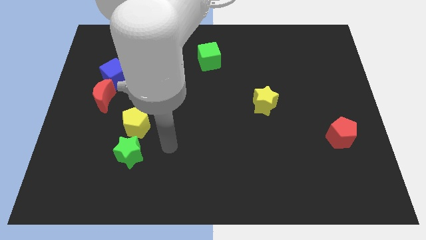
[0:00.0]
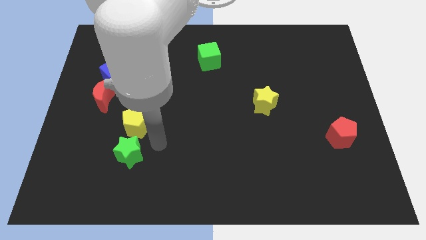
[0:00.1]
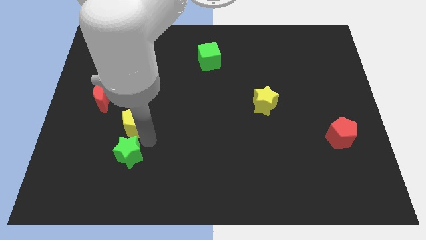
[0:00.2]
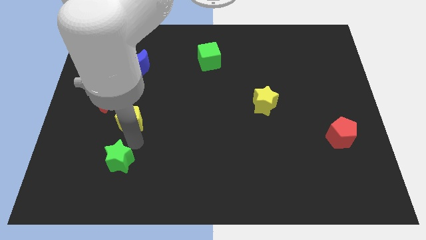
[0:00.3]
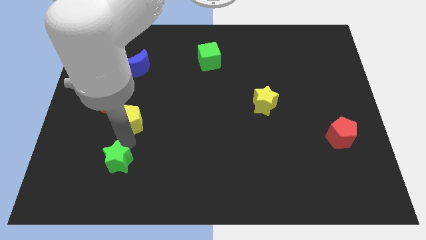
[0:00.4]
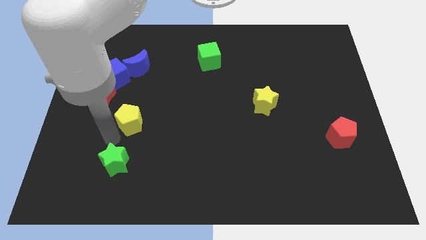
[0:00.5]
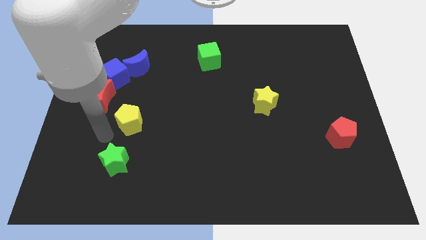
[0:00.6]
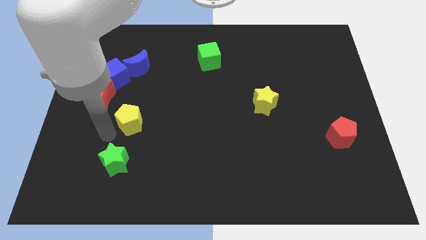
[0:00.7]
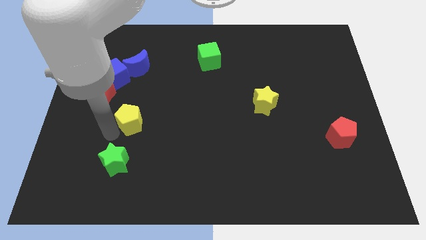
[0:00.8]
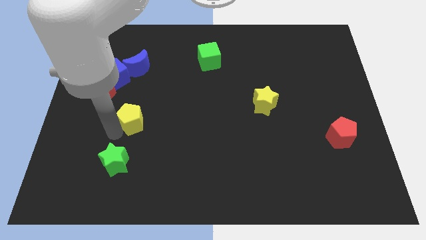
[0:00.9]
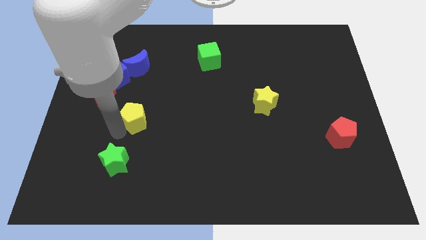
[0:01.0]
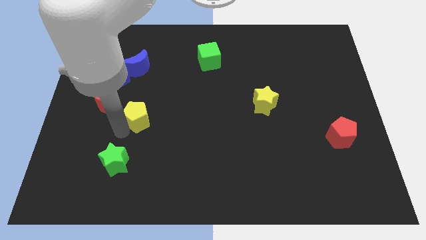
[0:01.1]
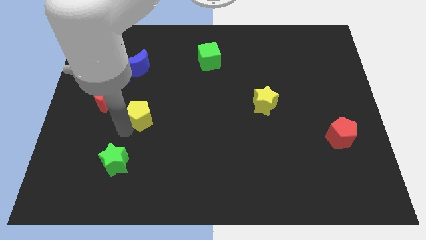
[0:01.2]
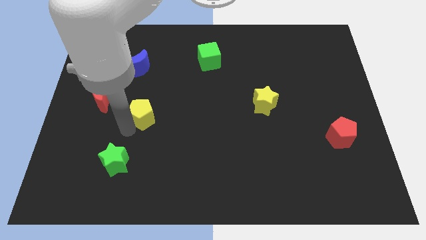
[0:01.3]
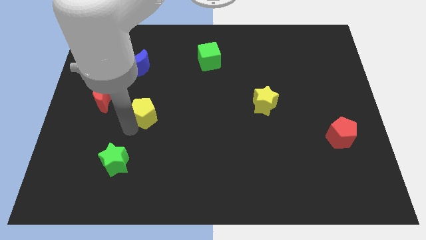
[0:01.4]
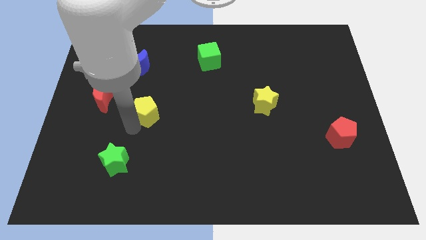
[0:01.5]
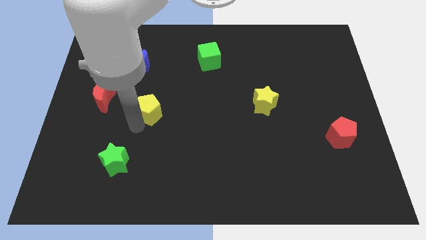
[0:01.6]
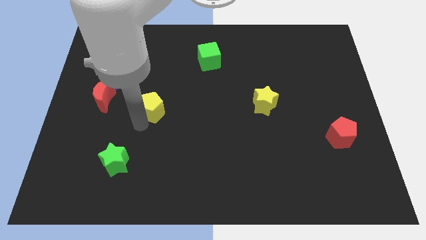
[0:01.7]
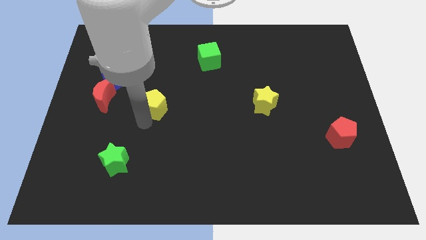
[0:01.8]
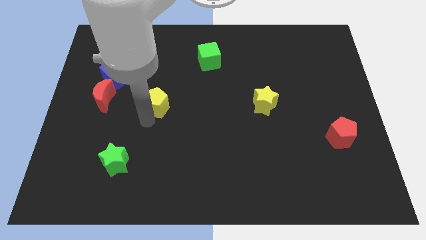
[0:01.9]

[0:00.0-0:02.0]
push the yellow pentagon up and to the right diagonally a little

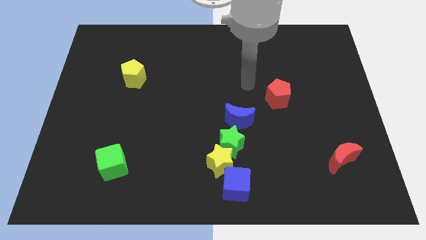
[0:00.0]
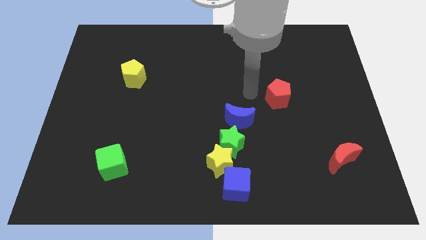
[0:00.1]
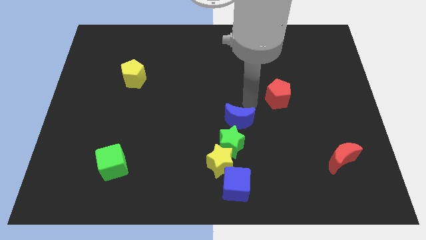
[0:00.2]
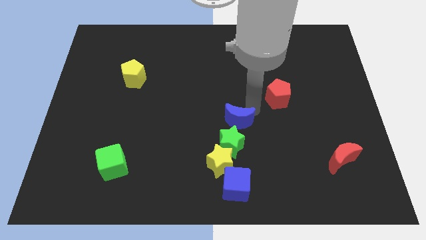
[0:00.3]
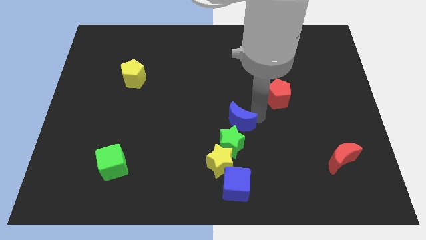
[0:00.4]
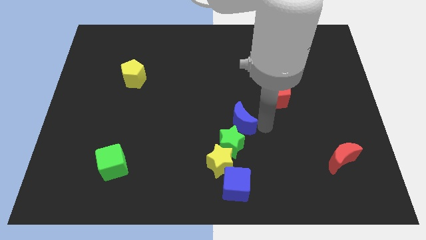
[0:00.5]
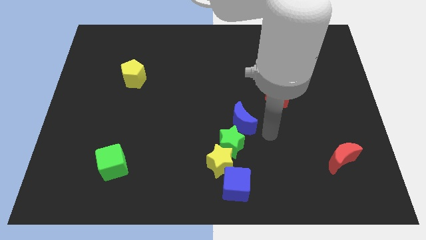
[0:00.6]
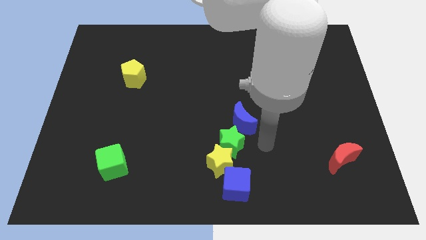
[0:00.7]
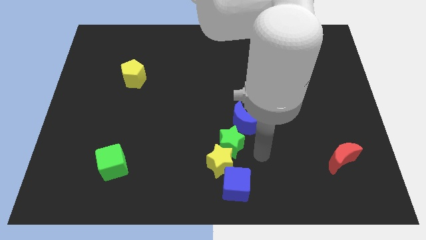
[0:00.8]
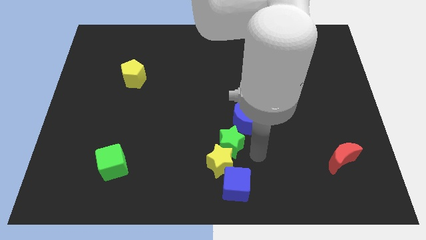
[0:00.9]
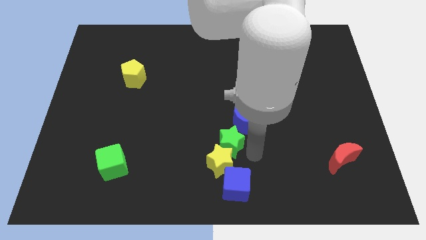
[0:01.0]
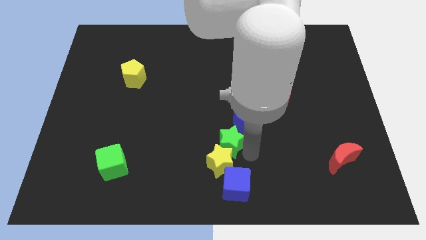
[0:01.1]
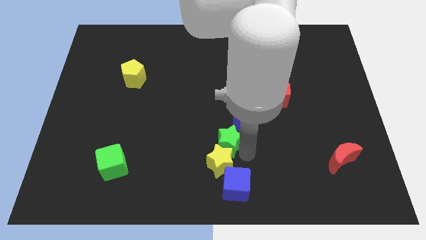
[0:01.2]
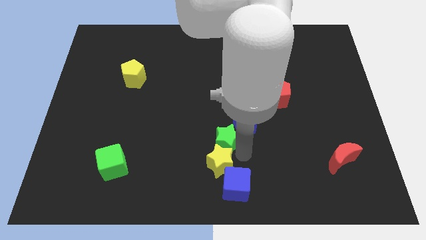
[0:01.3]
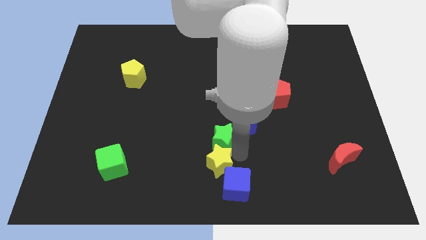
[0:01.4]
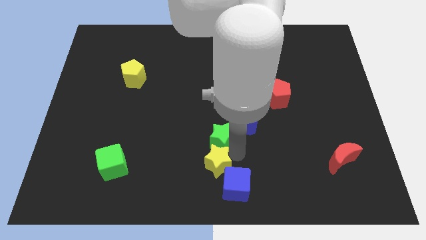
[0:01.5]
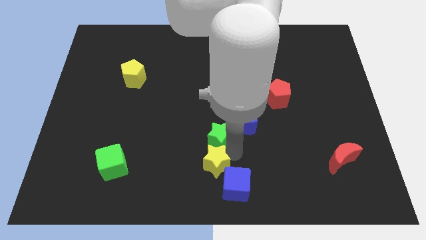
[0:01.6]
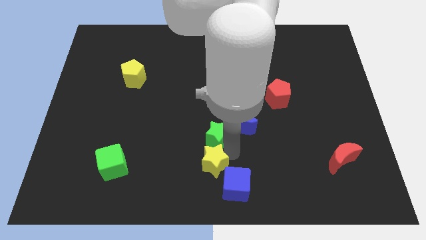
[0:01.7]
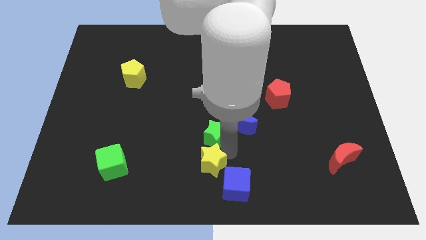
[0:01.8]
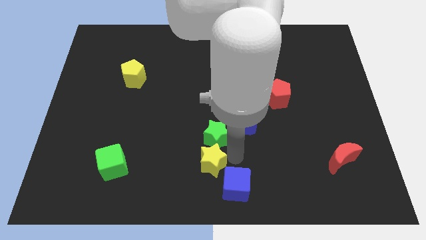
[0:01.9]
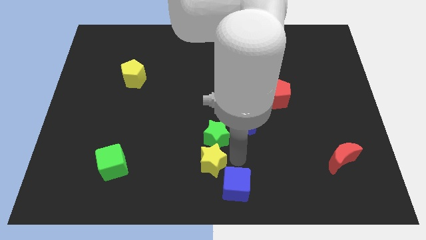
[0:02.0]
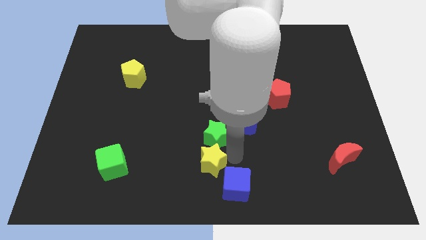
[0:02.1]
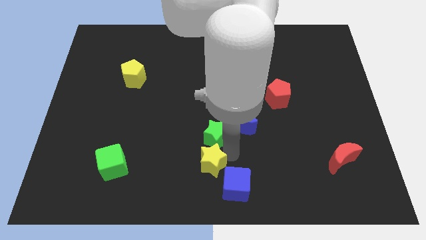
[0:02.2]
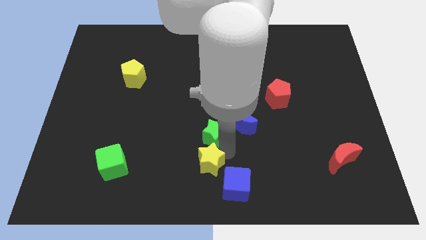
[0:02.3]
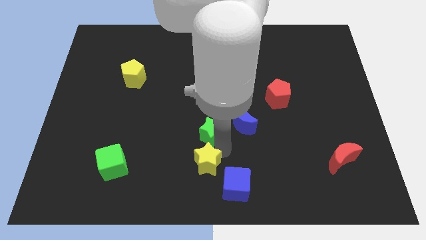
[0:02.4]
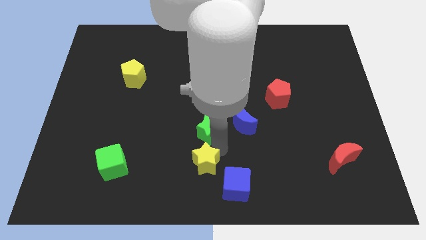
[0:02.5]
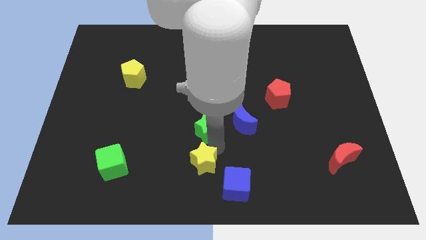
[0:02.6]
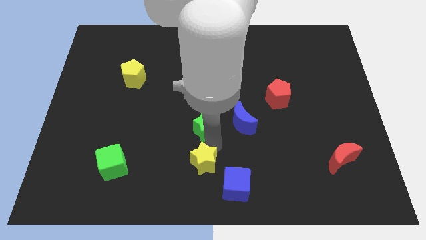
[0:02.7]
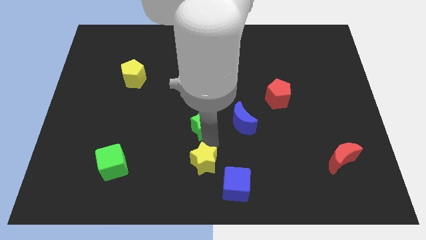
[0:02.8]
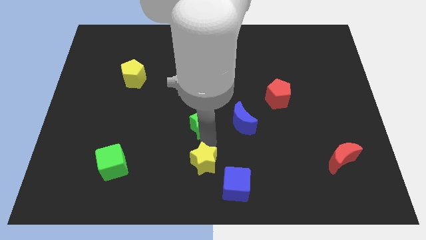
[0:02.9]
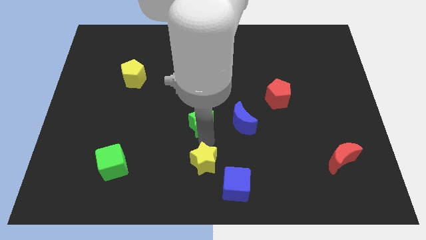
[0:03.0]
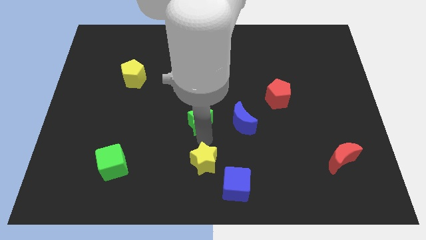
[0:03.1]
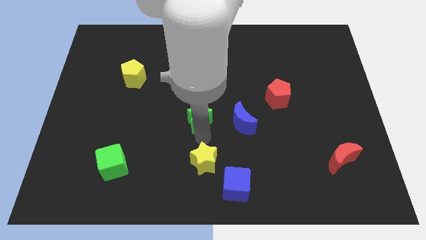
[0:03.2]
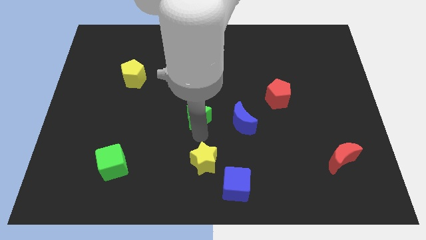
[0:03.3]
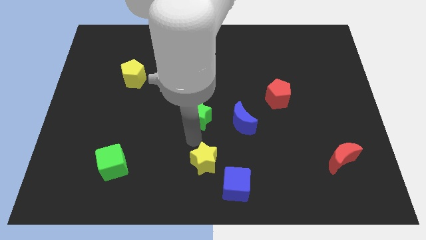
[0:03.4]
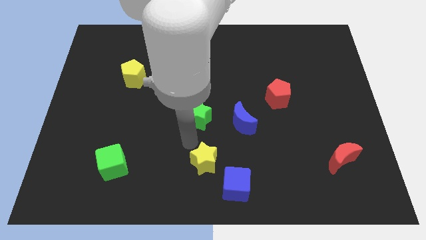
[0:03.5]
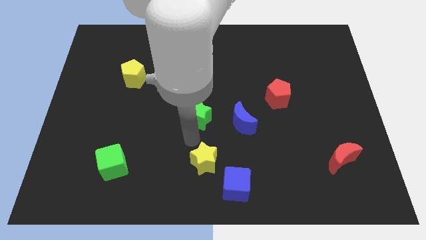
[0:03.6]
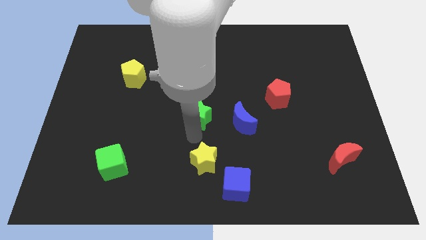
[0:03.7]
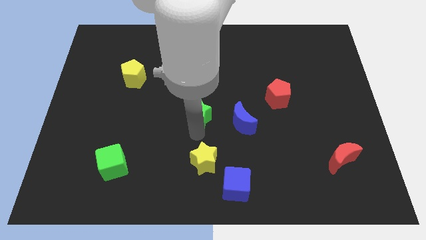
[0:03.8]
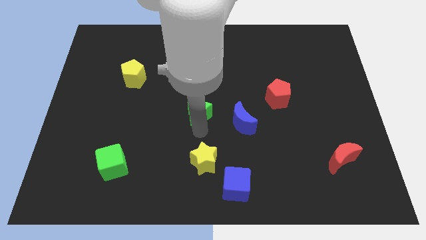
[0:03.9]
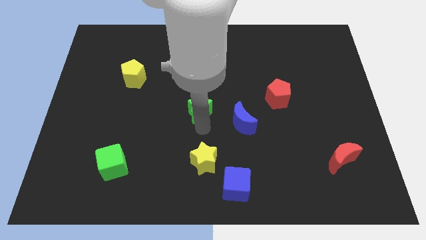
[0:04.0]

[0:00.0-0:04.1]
move the green star upwards a bit

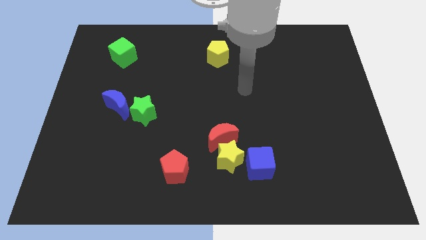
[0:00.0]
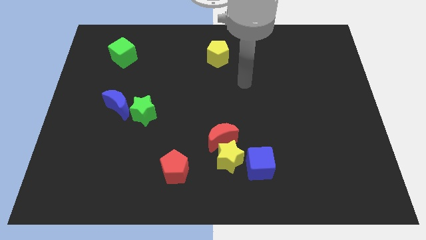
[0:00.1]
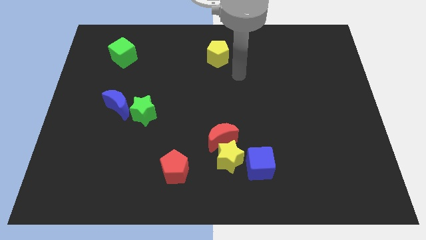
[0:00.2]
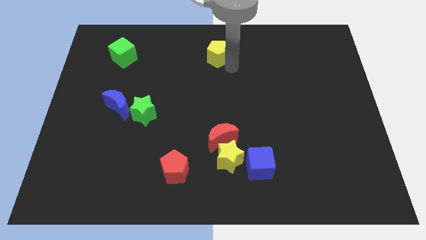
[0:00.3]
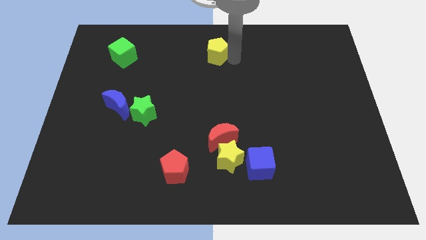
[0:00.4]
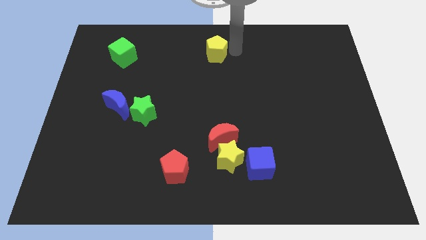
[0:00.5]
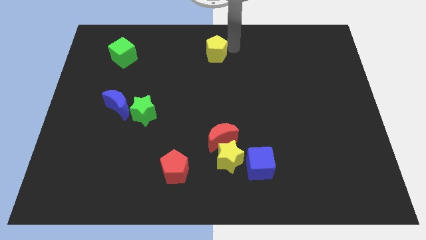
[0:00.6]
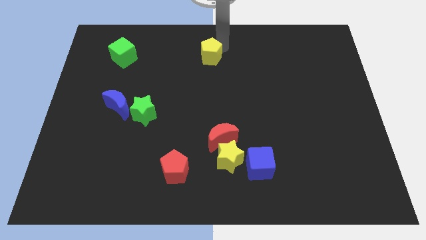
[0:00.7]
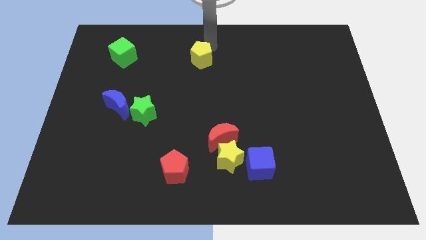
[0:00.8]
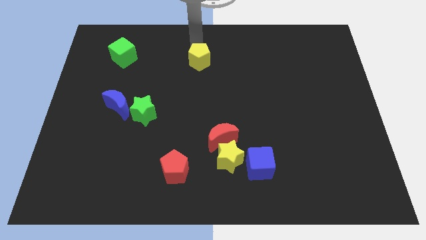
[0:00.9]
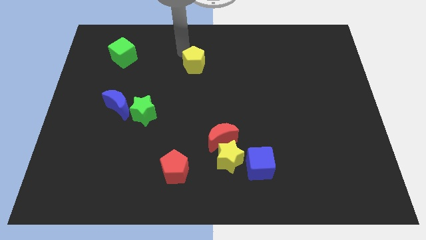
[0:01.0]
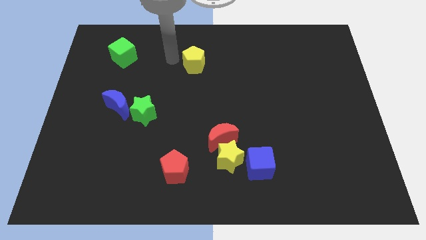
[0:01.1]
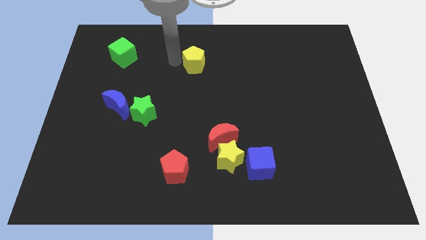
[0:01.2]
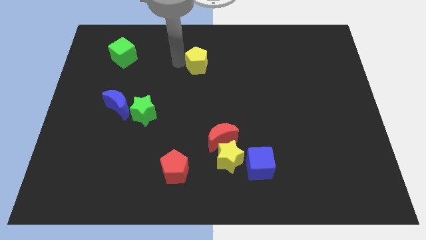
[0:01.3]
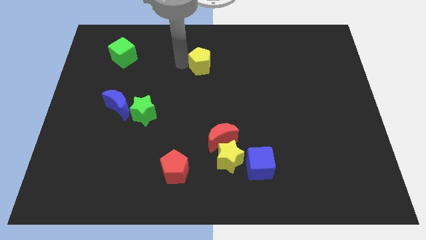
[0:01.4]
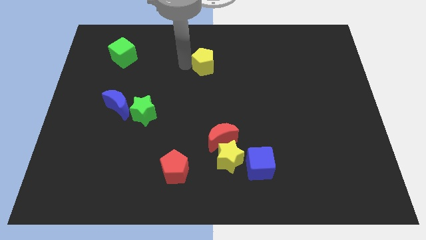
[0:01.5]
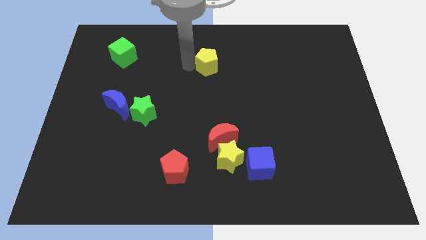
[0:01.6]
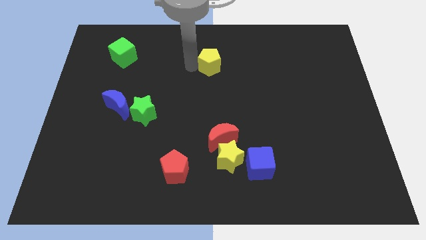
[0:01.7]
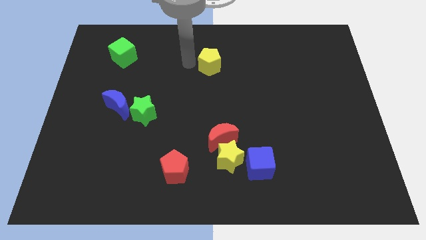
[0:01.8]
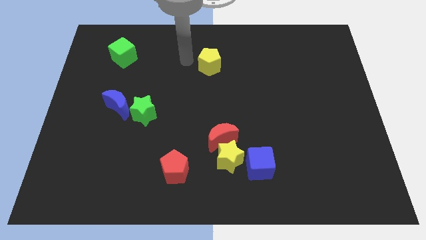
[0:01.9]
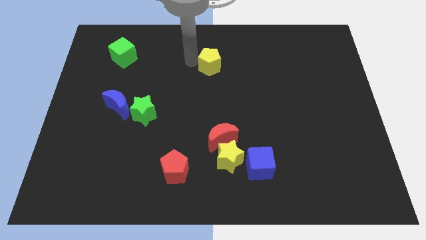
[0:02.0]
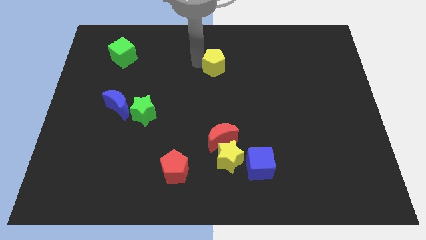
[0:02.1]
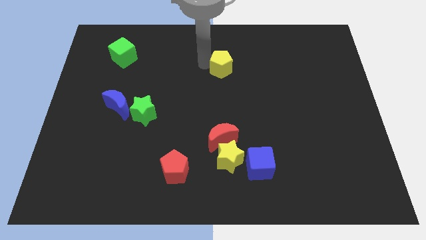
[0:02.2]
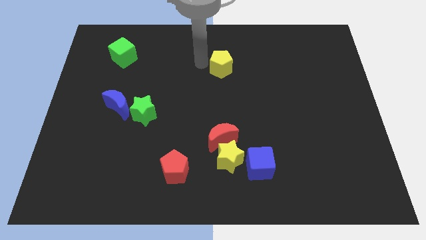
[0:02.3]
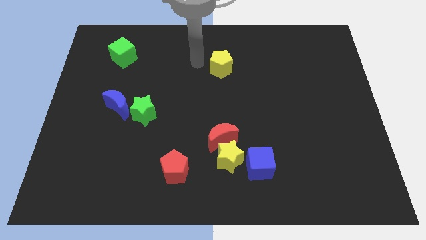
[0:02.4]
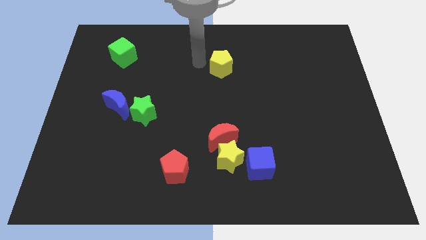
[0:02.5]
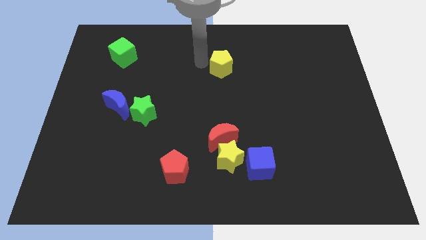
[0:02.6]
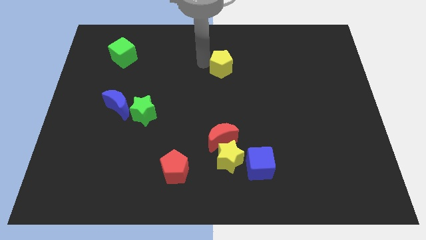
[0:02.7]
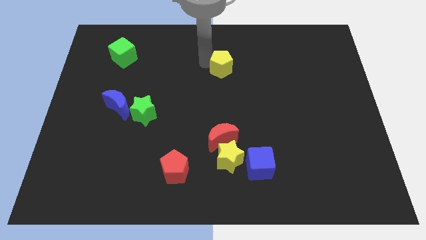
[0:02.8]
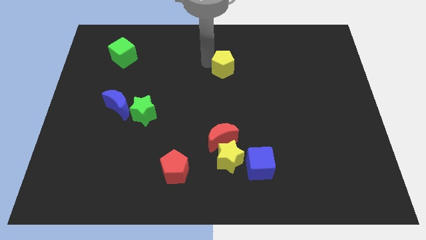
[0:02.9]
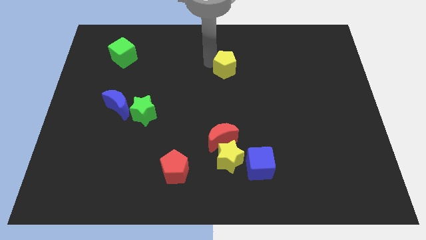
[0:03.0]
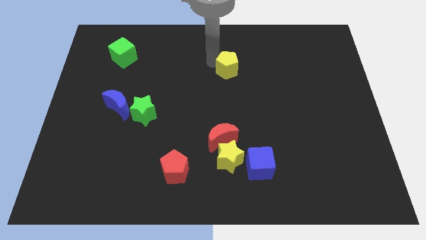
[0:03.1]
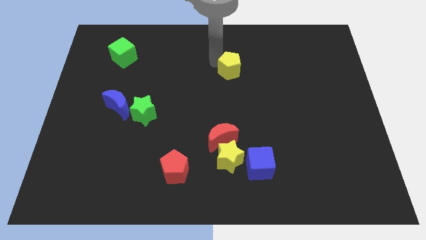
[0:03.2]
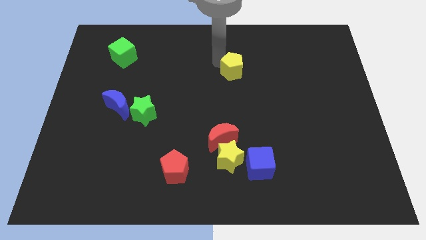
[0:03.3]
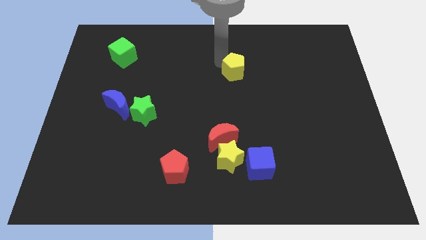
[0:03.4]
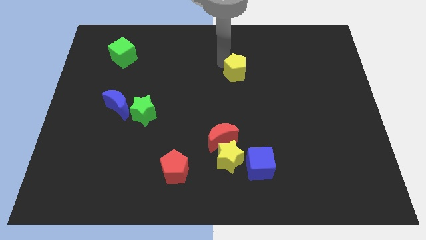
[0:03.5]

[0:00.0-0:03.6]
slightly slide the yellow pentagon down and to the right diagonally
